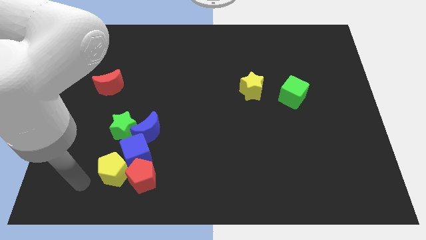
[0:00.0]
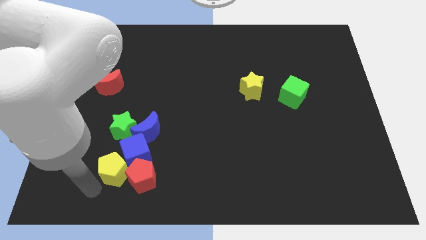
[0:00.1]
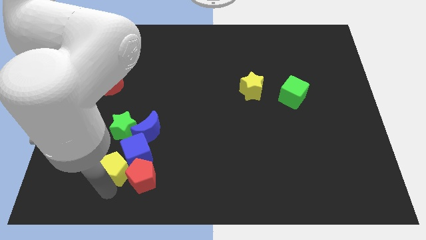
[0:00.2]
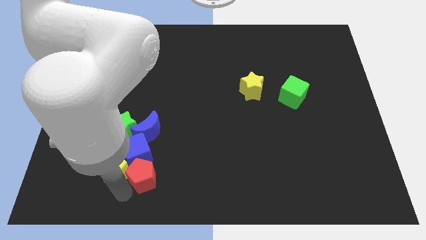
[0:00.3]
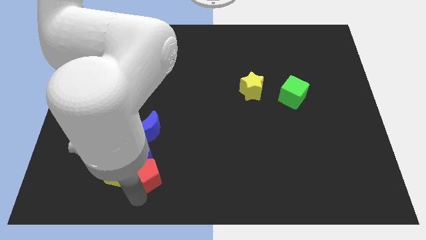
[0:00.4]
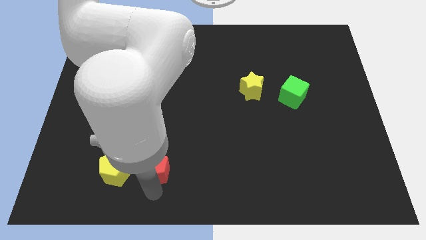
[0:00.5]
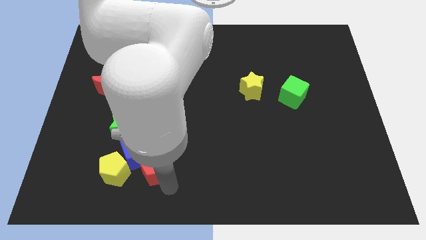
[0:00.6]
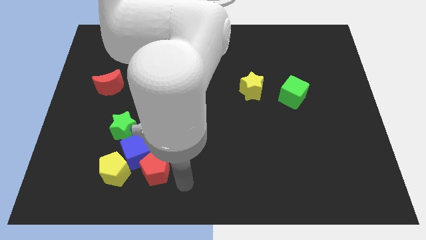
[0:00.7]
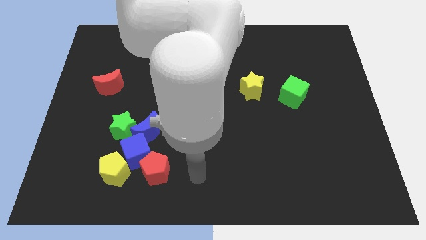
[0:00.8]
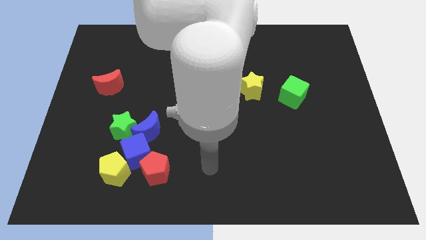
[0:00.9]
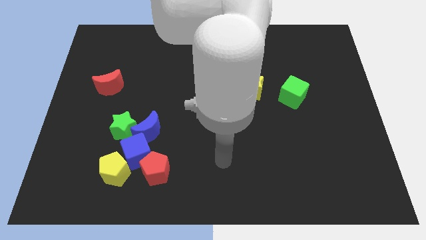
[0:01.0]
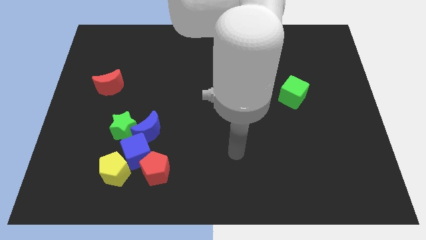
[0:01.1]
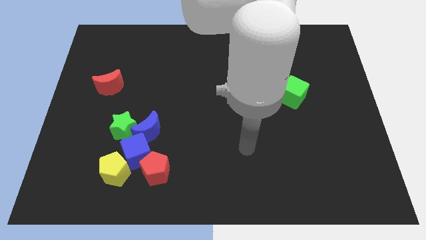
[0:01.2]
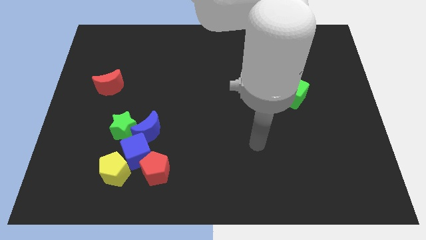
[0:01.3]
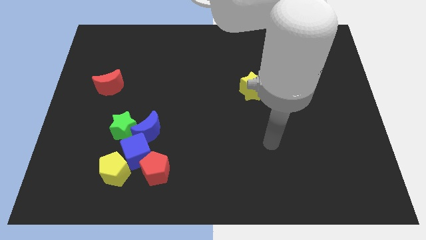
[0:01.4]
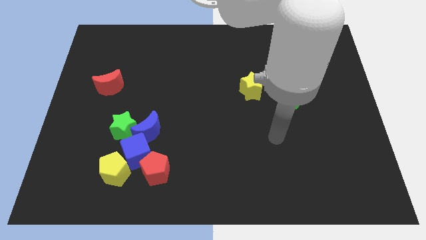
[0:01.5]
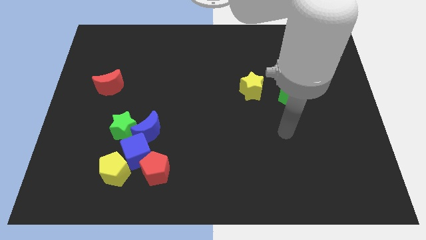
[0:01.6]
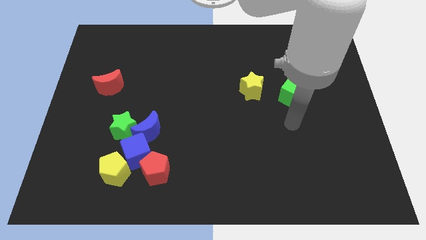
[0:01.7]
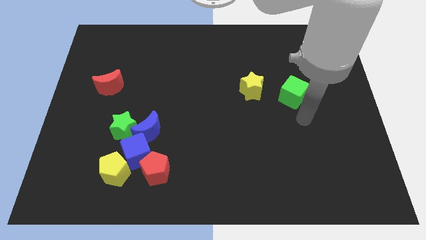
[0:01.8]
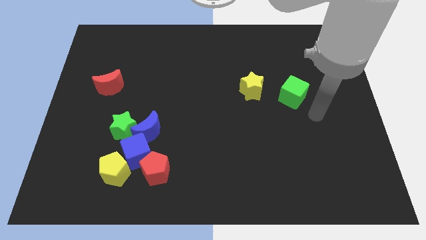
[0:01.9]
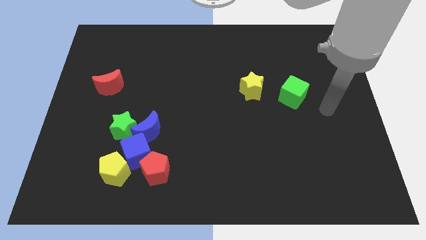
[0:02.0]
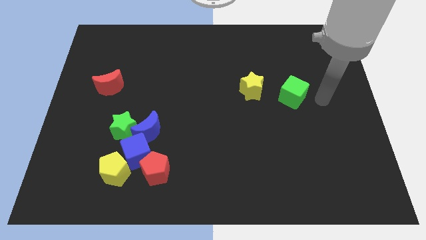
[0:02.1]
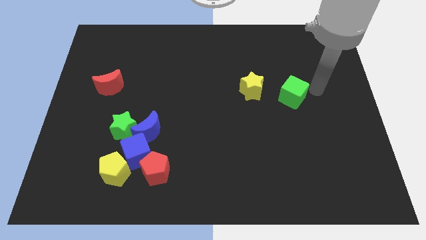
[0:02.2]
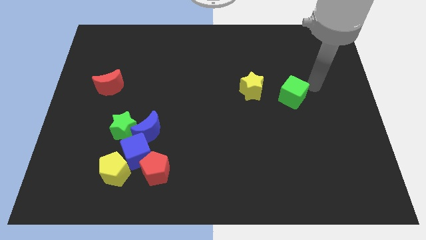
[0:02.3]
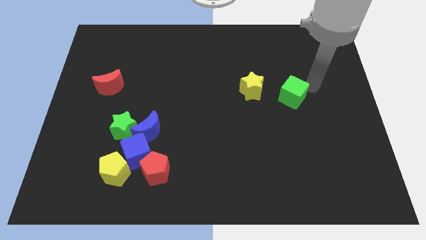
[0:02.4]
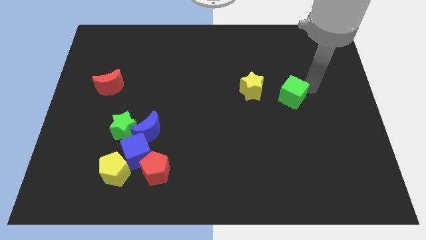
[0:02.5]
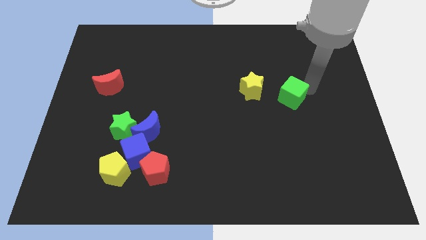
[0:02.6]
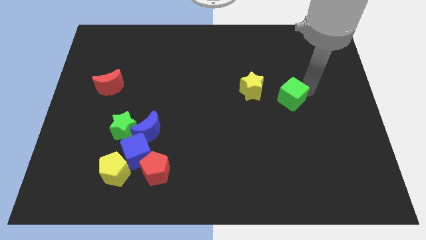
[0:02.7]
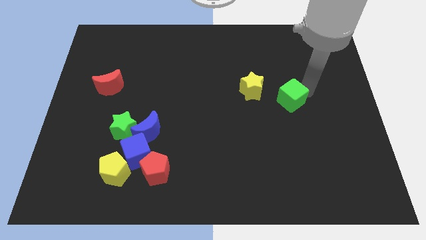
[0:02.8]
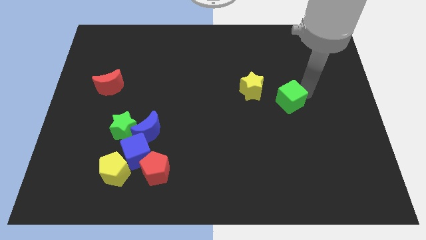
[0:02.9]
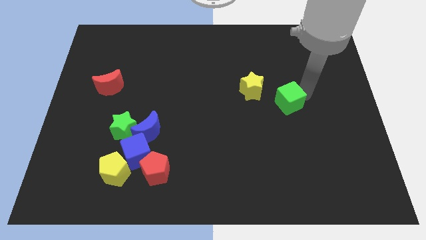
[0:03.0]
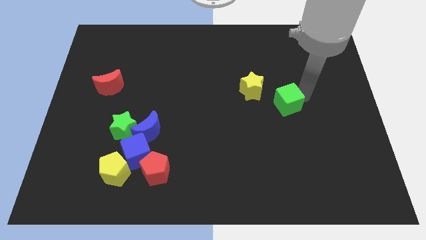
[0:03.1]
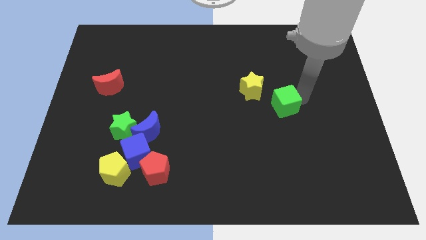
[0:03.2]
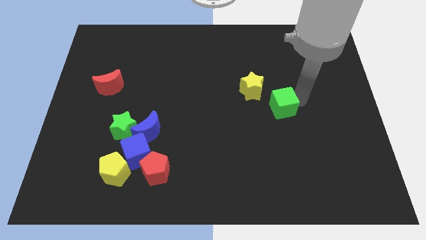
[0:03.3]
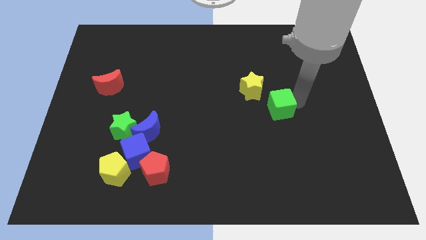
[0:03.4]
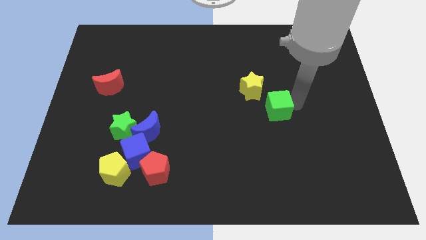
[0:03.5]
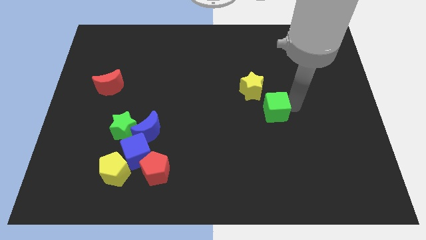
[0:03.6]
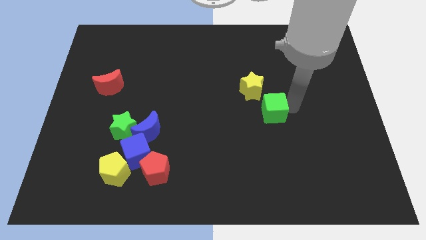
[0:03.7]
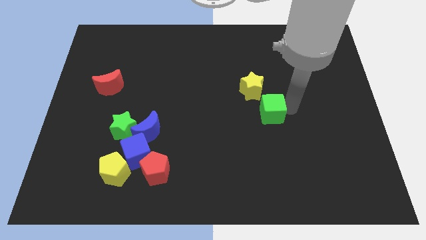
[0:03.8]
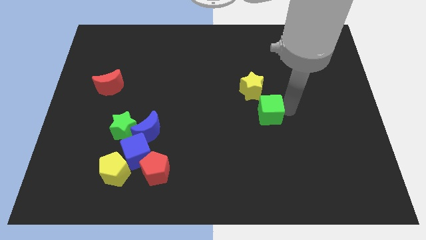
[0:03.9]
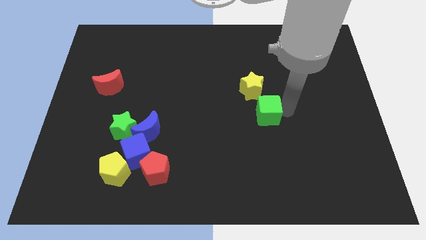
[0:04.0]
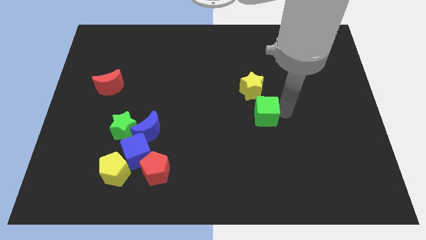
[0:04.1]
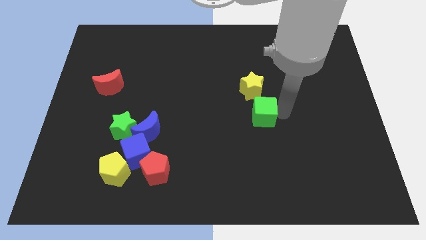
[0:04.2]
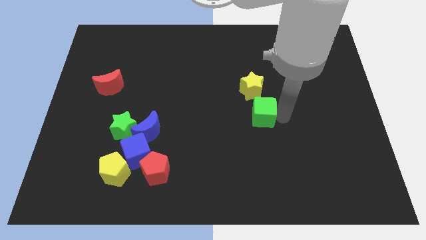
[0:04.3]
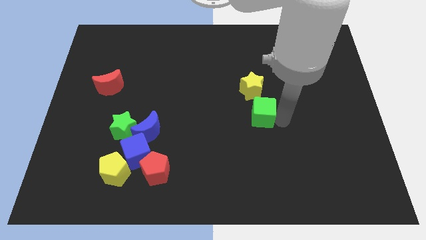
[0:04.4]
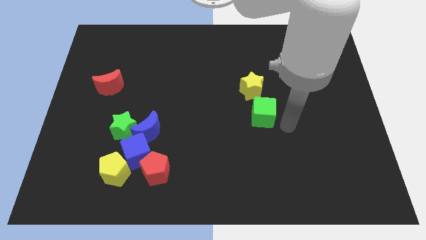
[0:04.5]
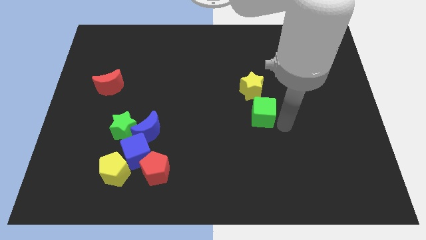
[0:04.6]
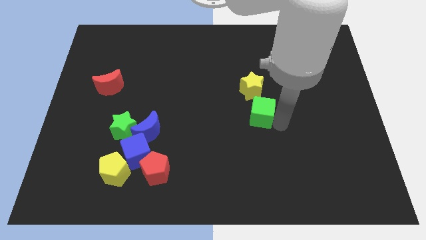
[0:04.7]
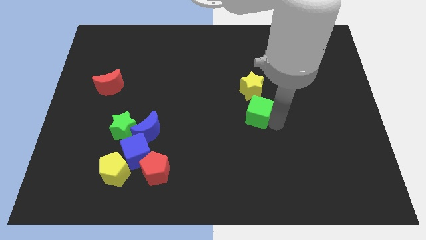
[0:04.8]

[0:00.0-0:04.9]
slightly slide the green cube to the left

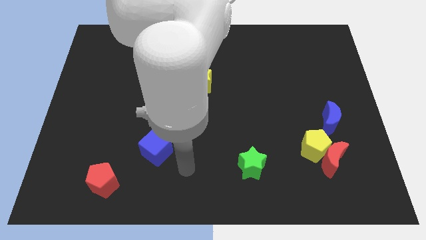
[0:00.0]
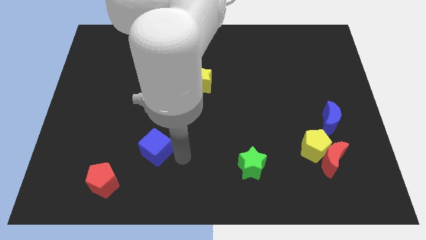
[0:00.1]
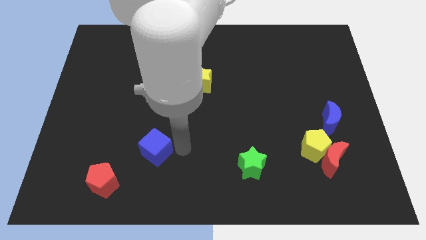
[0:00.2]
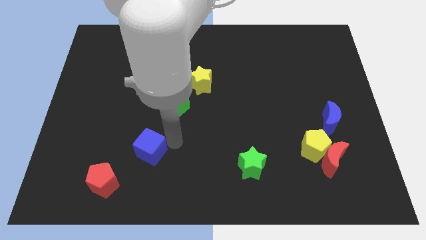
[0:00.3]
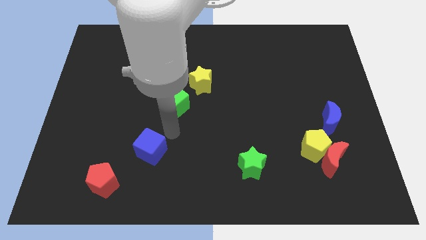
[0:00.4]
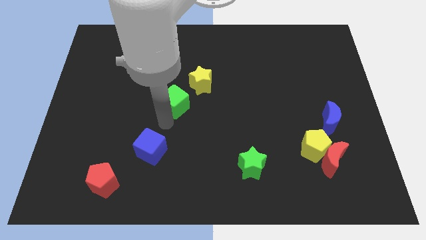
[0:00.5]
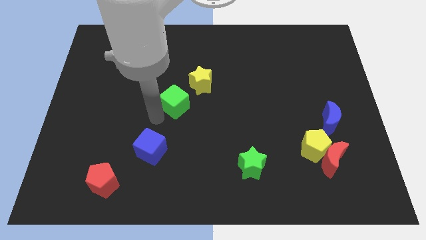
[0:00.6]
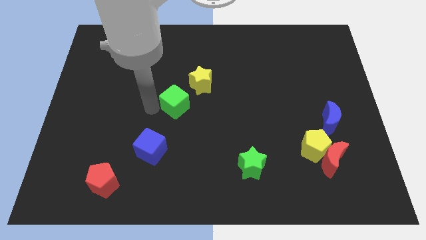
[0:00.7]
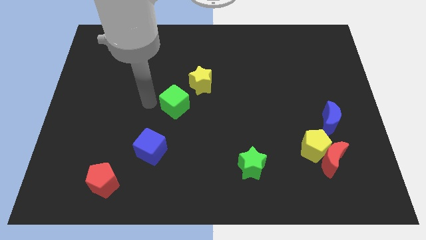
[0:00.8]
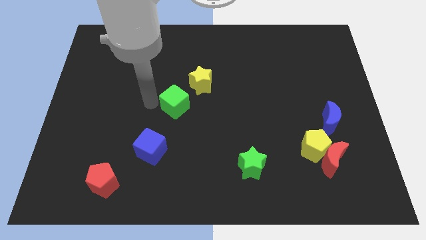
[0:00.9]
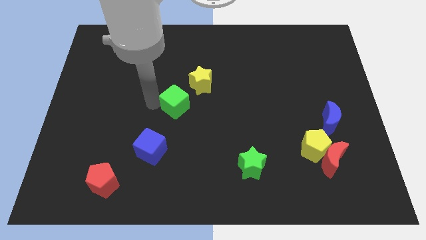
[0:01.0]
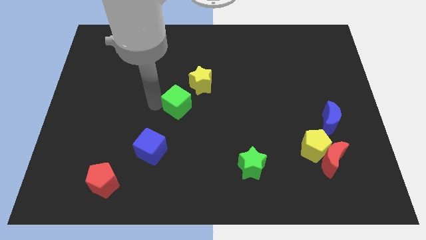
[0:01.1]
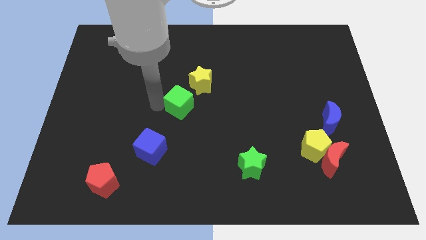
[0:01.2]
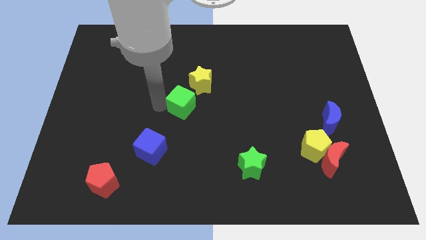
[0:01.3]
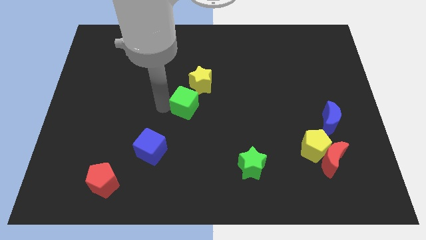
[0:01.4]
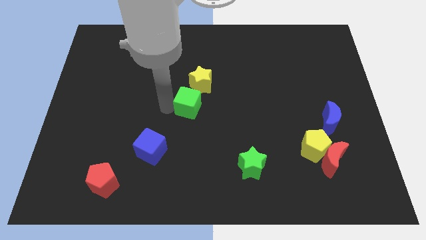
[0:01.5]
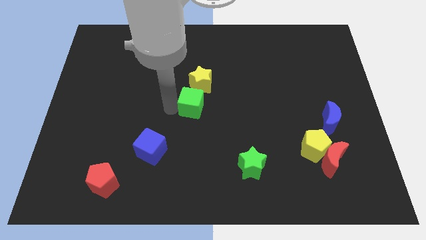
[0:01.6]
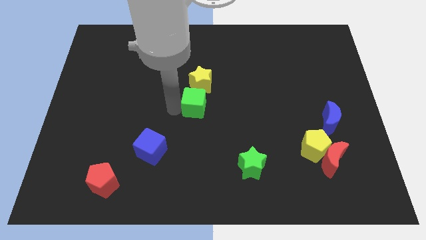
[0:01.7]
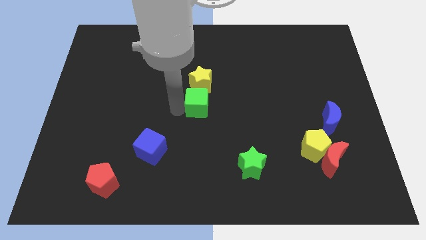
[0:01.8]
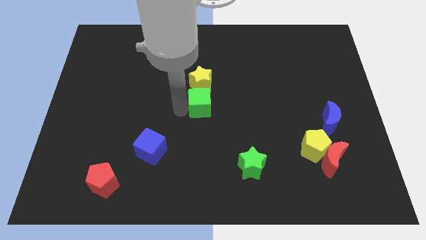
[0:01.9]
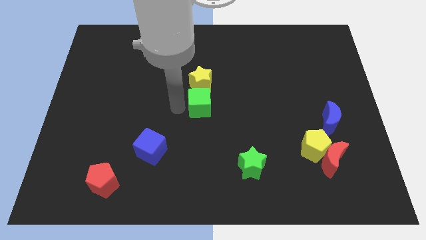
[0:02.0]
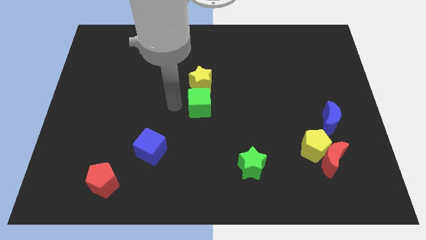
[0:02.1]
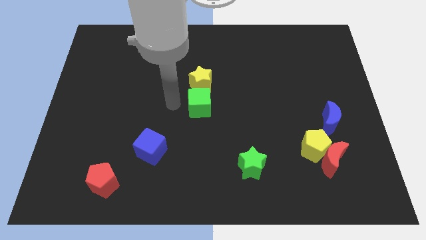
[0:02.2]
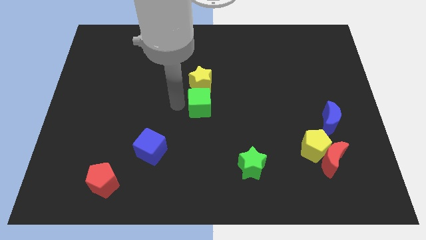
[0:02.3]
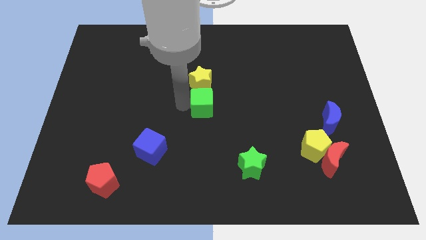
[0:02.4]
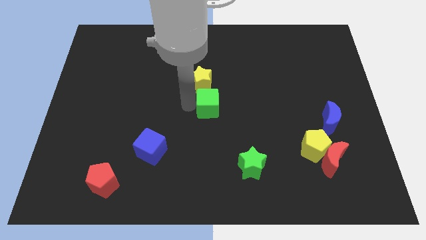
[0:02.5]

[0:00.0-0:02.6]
slightly slide the green cube right

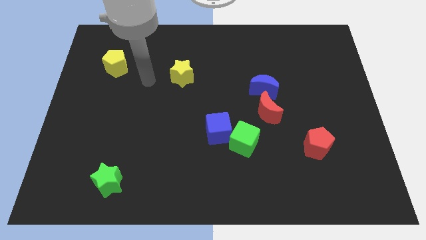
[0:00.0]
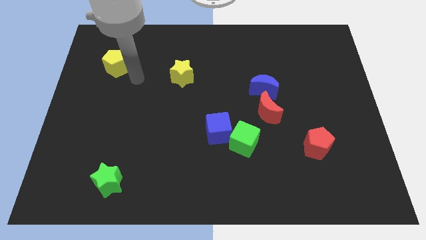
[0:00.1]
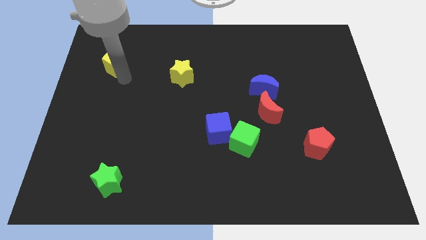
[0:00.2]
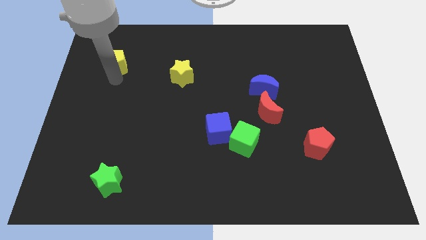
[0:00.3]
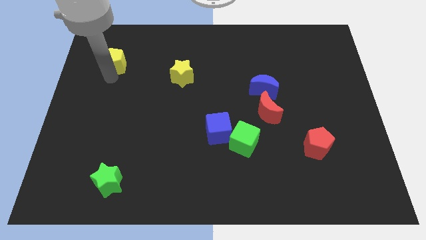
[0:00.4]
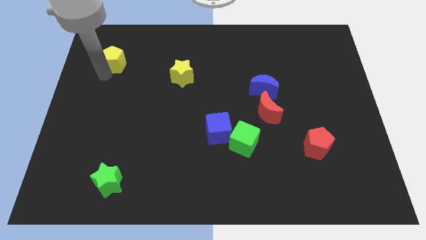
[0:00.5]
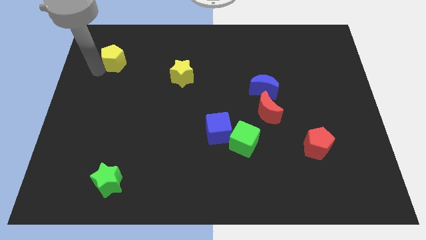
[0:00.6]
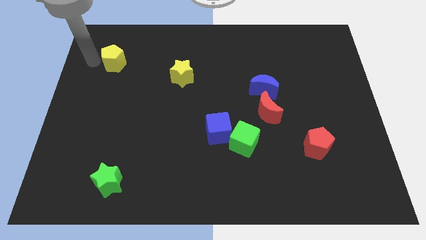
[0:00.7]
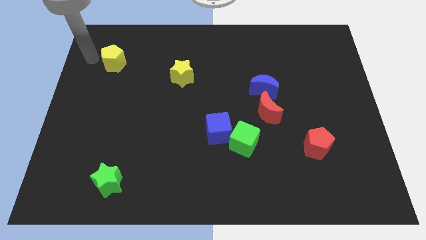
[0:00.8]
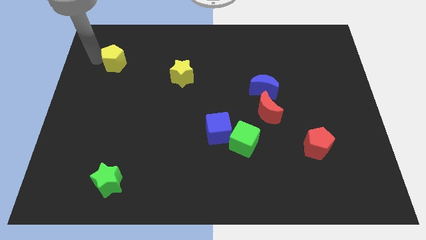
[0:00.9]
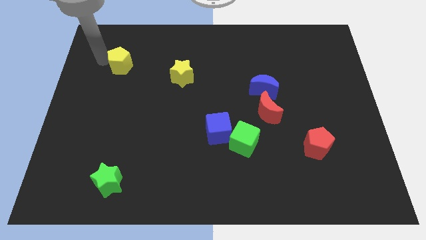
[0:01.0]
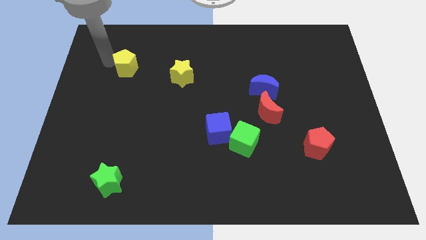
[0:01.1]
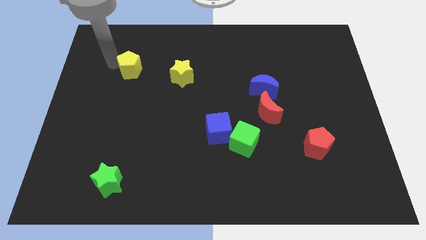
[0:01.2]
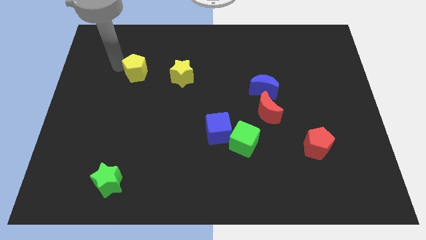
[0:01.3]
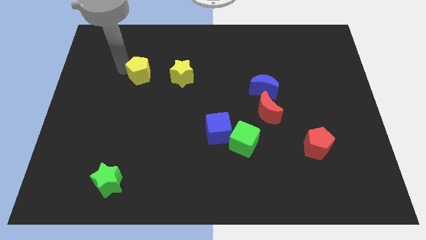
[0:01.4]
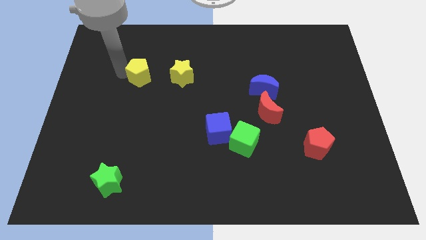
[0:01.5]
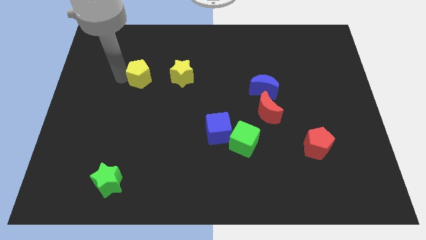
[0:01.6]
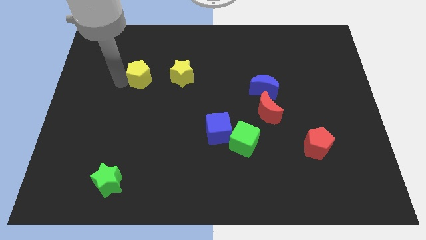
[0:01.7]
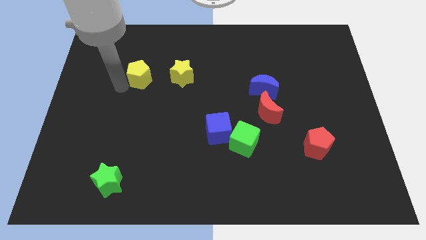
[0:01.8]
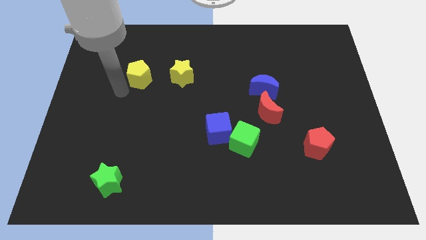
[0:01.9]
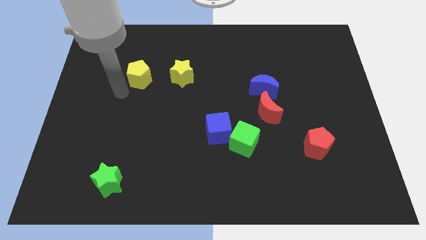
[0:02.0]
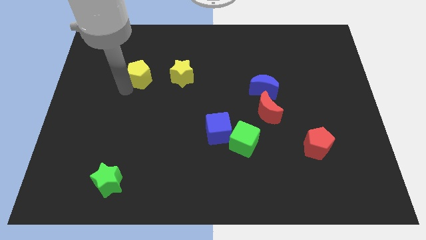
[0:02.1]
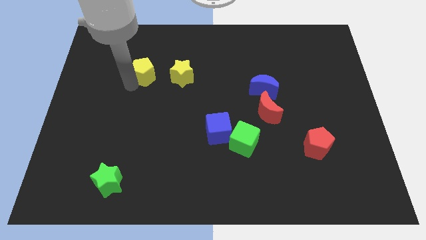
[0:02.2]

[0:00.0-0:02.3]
slightly move the yellow pentagon to the right
